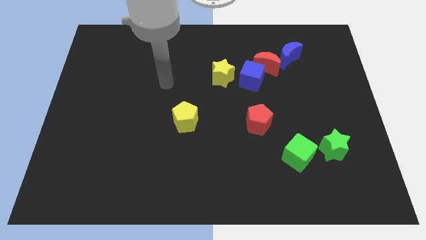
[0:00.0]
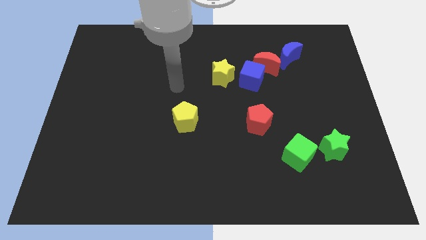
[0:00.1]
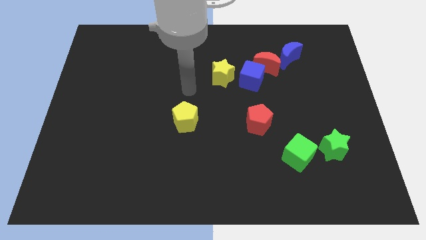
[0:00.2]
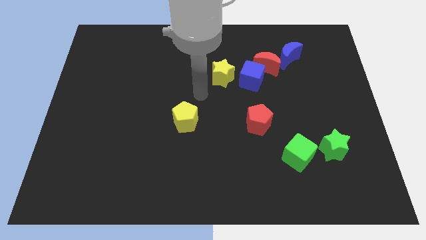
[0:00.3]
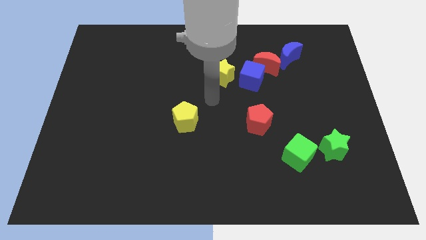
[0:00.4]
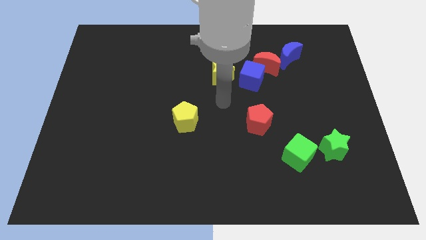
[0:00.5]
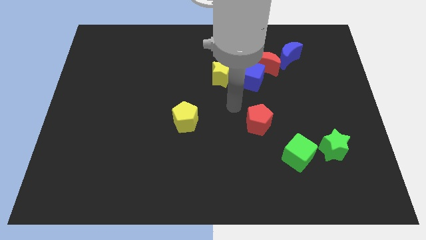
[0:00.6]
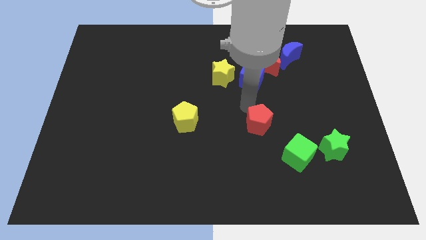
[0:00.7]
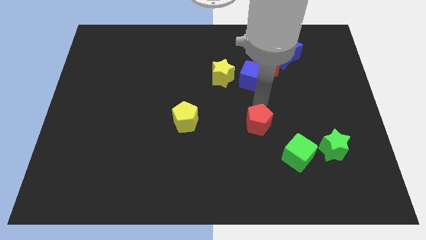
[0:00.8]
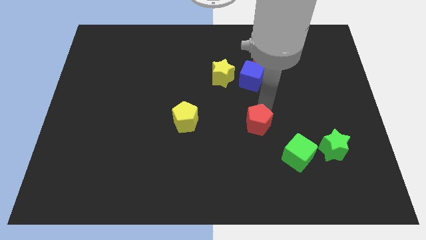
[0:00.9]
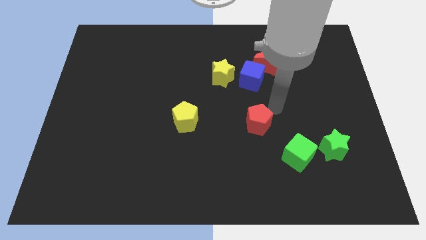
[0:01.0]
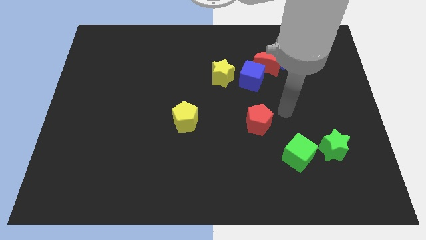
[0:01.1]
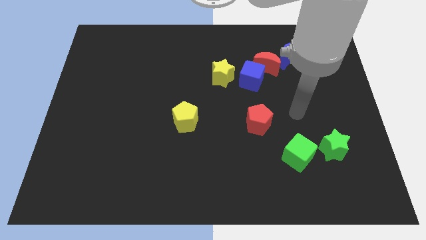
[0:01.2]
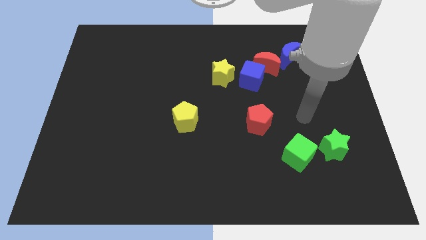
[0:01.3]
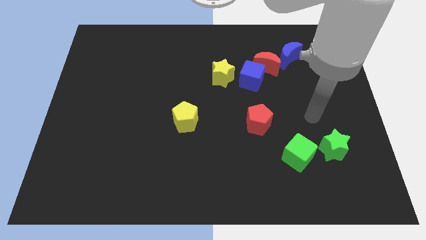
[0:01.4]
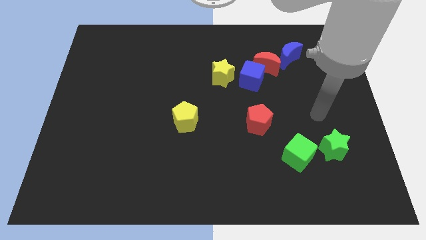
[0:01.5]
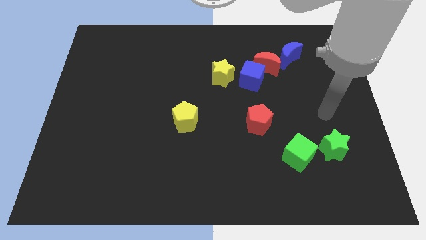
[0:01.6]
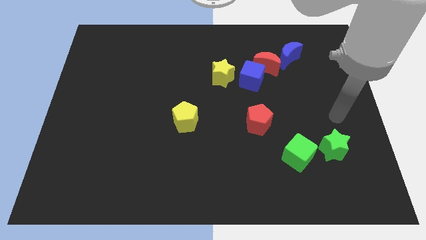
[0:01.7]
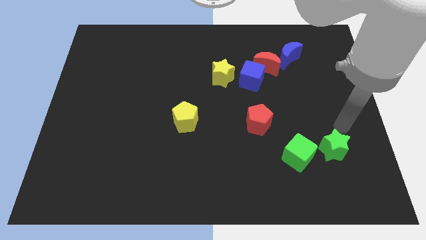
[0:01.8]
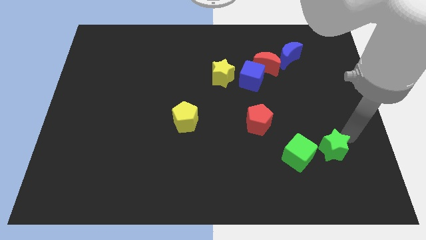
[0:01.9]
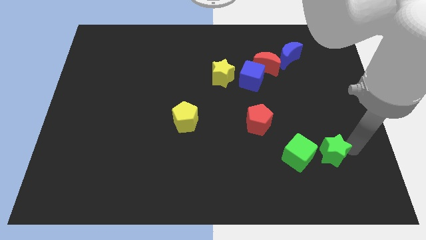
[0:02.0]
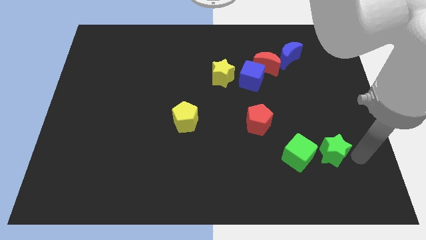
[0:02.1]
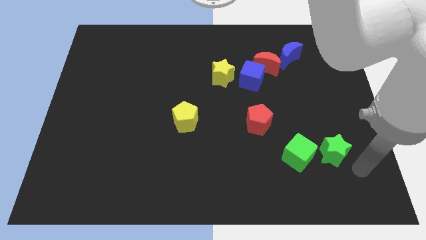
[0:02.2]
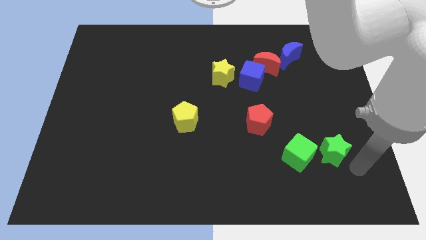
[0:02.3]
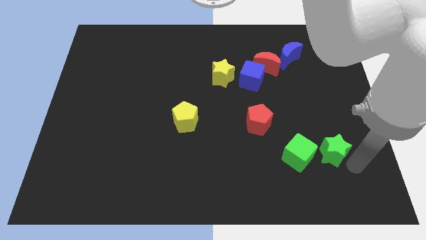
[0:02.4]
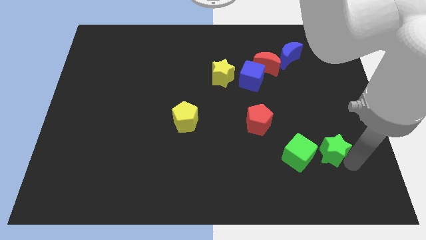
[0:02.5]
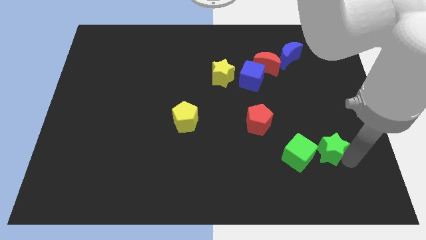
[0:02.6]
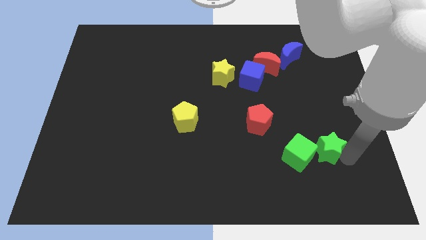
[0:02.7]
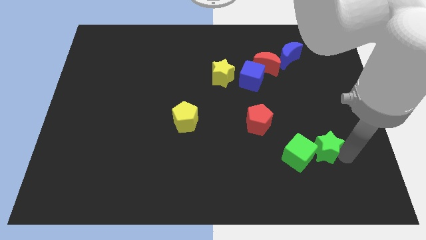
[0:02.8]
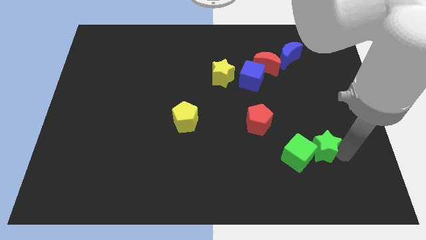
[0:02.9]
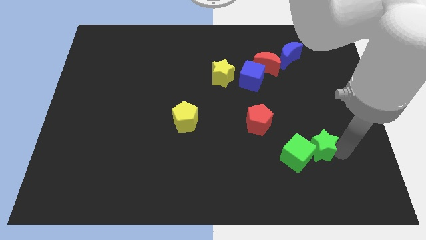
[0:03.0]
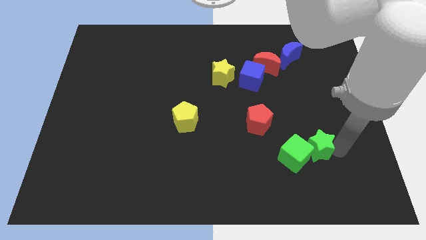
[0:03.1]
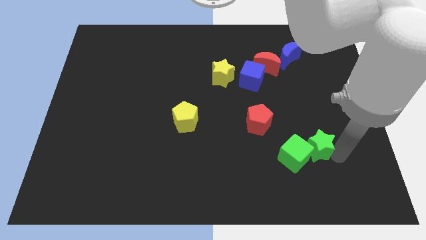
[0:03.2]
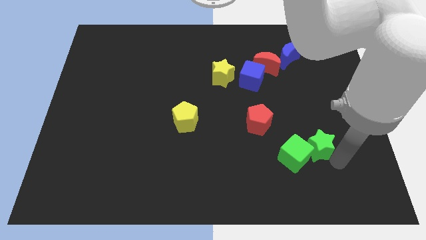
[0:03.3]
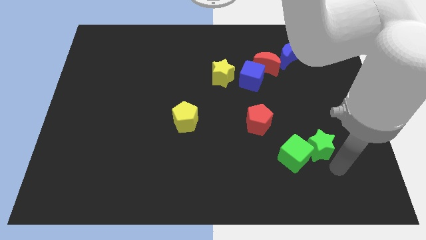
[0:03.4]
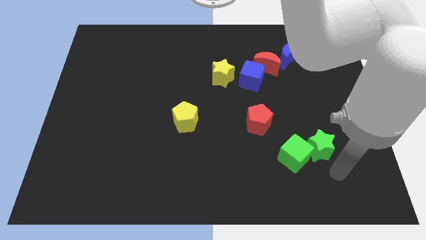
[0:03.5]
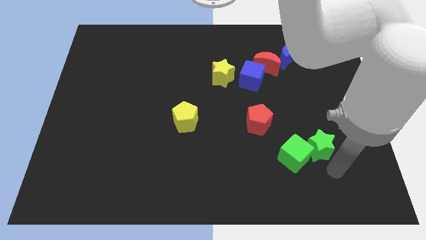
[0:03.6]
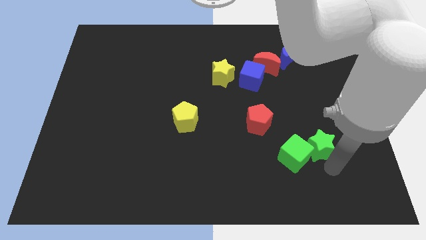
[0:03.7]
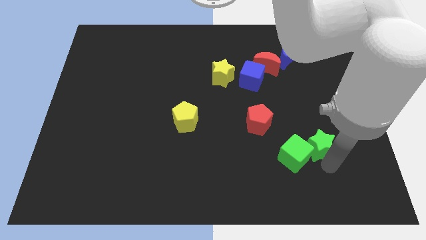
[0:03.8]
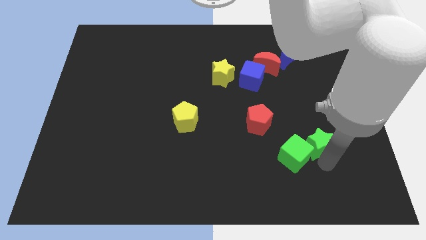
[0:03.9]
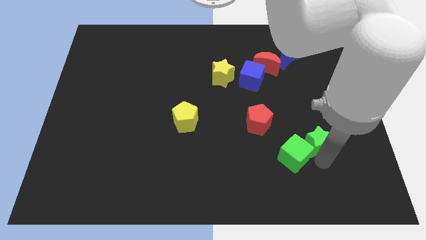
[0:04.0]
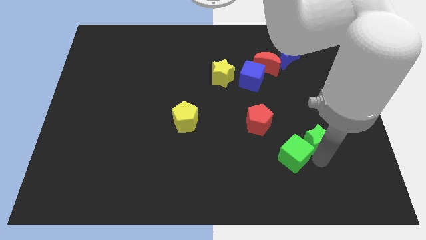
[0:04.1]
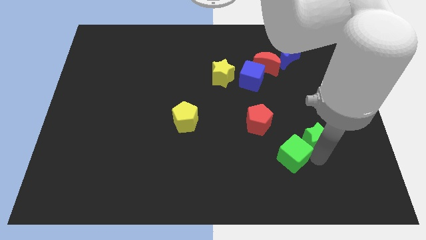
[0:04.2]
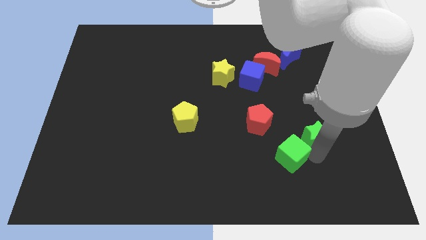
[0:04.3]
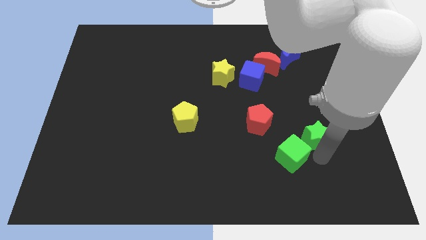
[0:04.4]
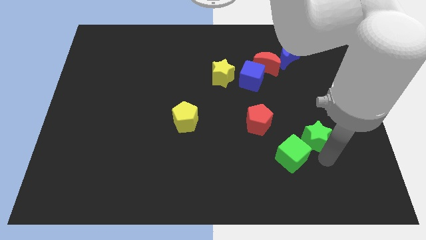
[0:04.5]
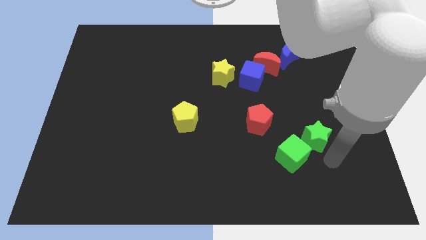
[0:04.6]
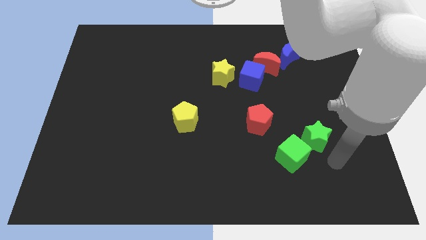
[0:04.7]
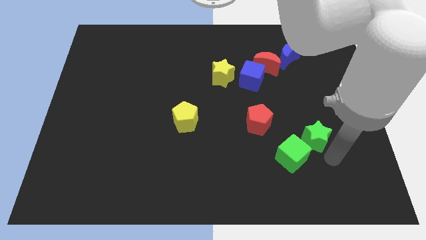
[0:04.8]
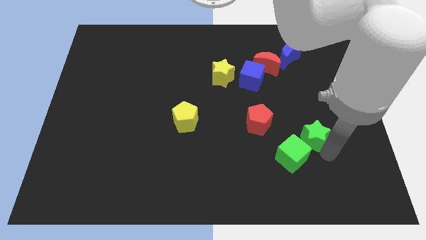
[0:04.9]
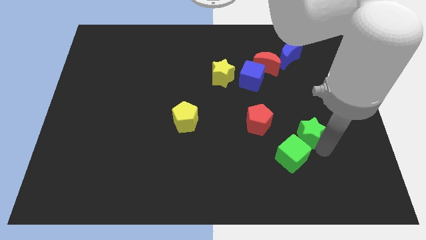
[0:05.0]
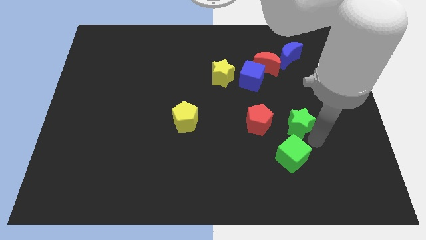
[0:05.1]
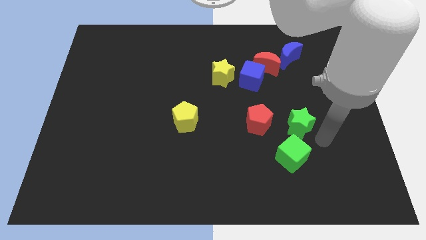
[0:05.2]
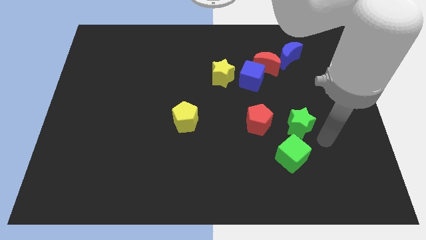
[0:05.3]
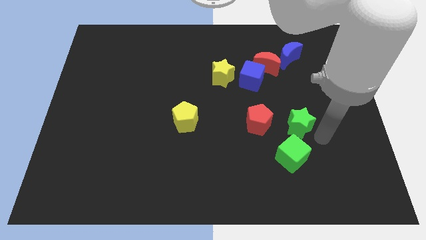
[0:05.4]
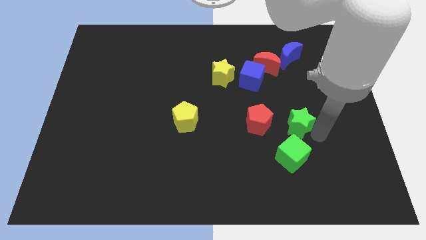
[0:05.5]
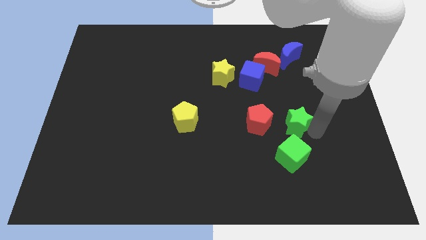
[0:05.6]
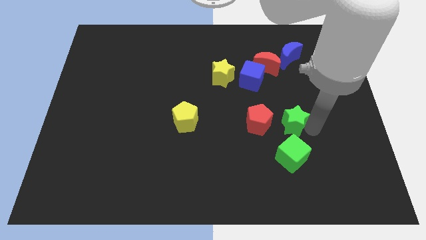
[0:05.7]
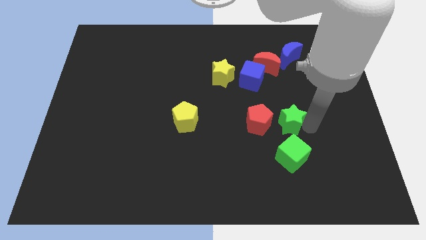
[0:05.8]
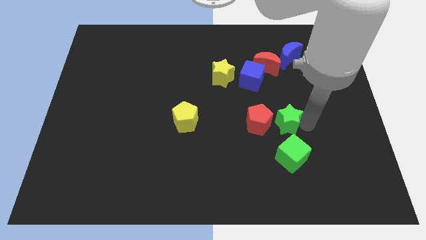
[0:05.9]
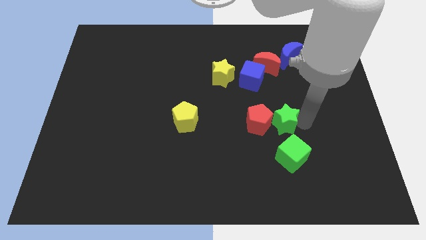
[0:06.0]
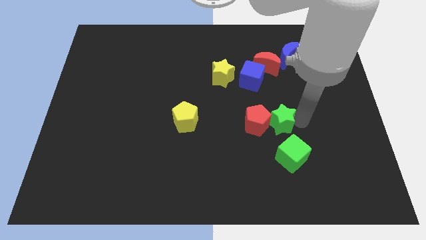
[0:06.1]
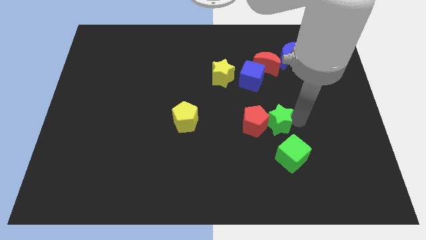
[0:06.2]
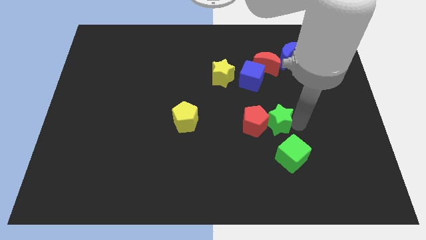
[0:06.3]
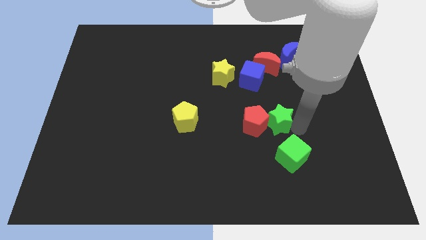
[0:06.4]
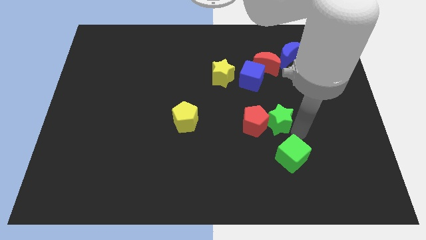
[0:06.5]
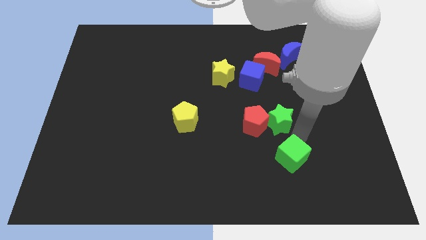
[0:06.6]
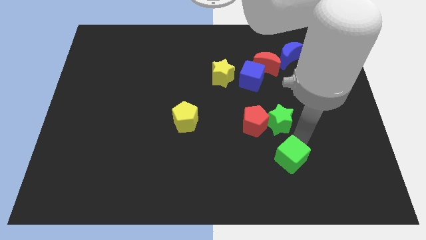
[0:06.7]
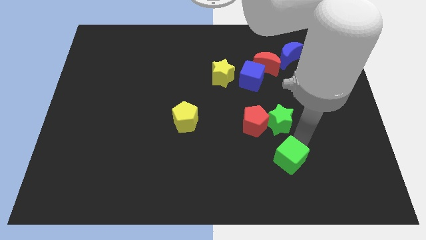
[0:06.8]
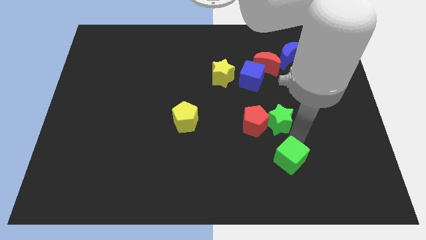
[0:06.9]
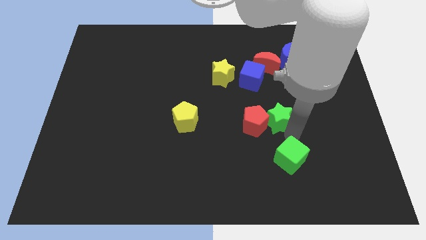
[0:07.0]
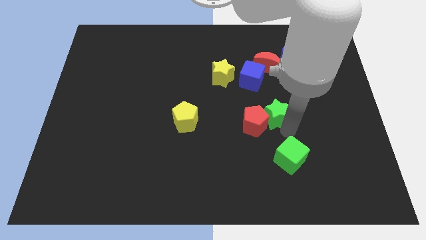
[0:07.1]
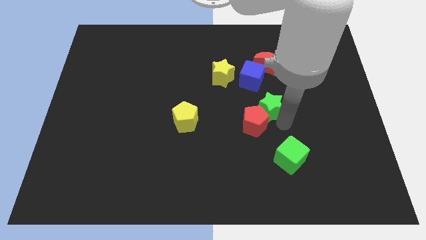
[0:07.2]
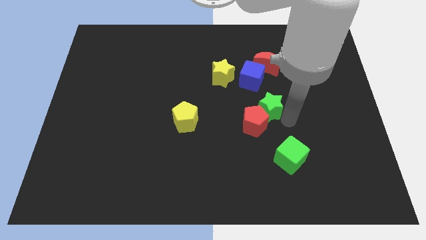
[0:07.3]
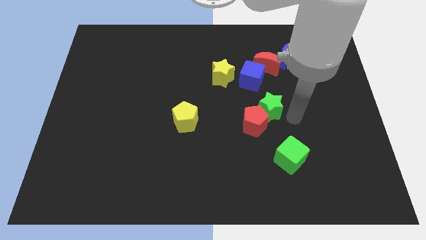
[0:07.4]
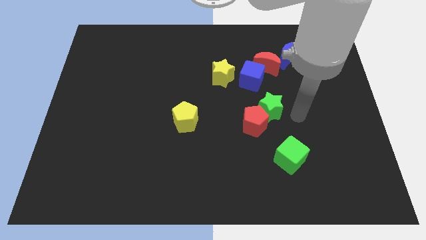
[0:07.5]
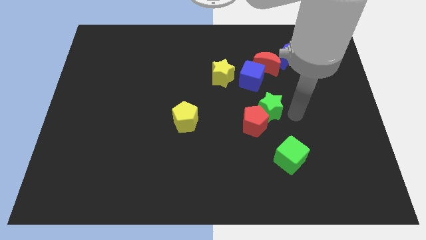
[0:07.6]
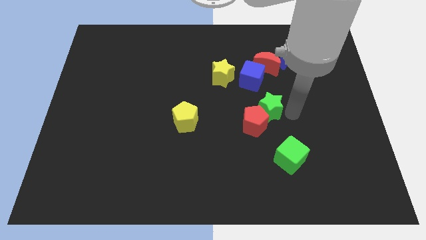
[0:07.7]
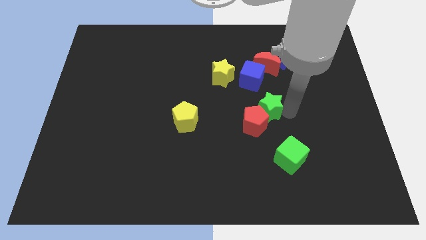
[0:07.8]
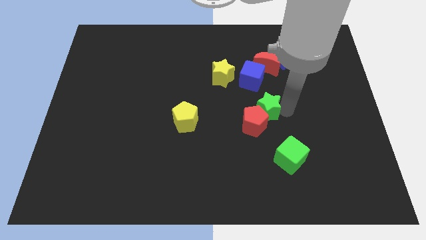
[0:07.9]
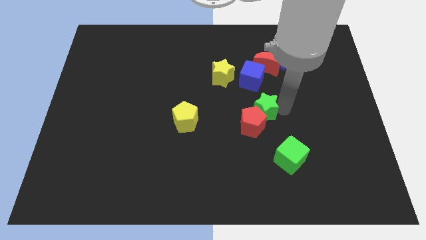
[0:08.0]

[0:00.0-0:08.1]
slide the green star to the middle
